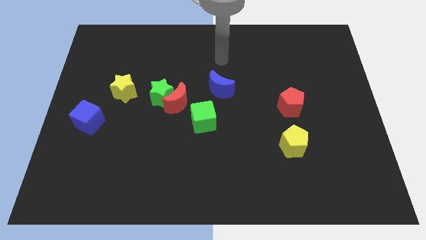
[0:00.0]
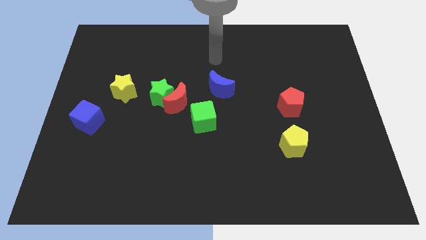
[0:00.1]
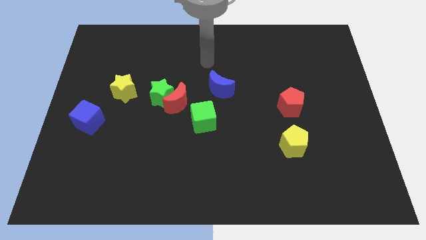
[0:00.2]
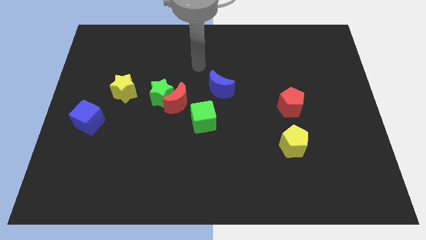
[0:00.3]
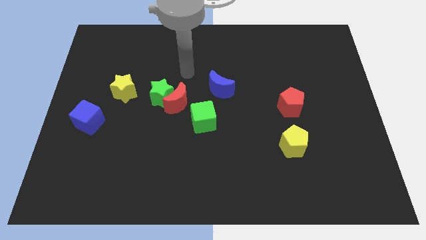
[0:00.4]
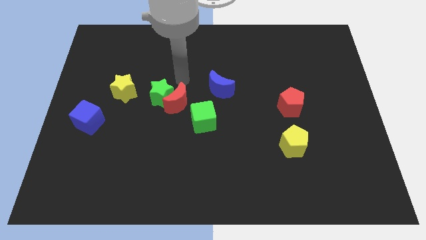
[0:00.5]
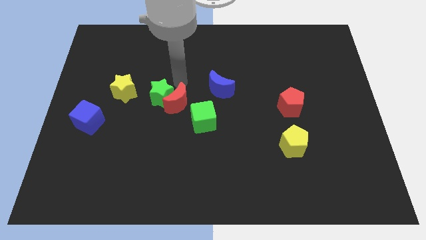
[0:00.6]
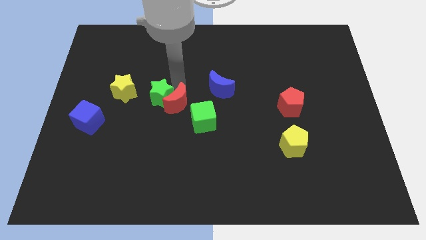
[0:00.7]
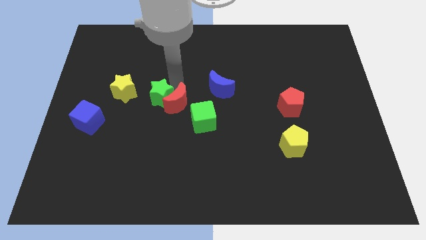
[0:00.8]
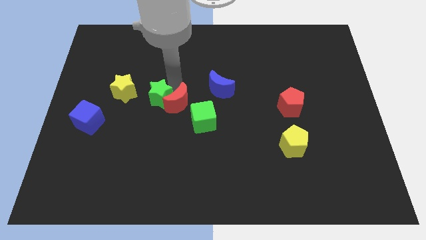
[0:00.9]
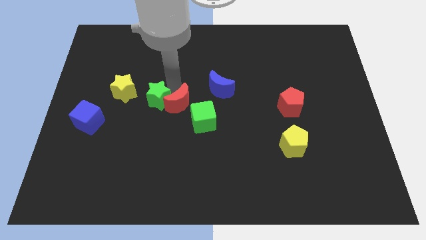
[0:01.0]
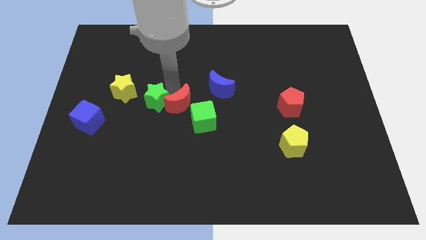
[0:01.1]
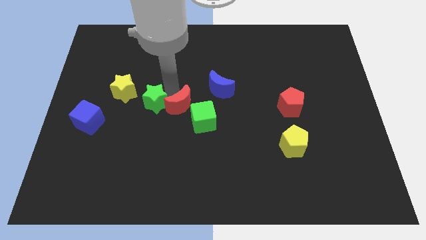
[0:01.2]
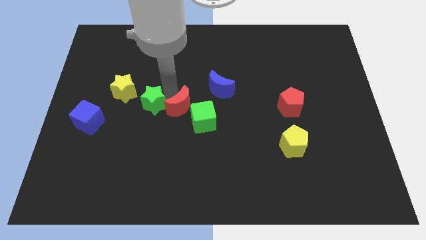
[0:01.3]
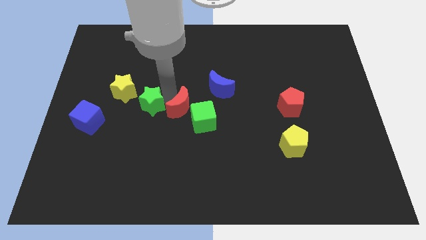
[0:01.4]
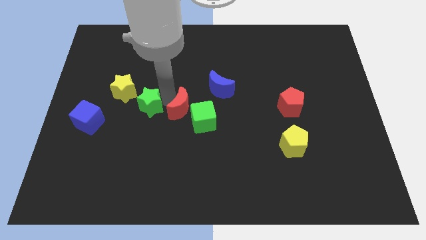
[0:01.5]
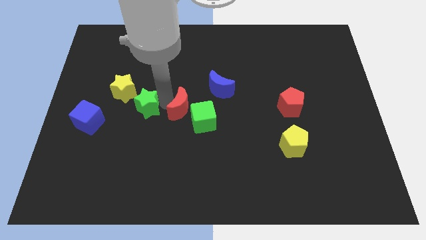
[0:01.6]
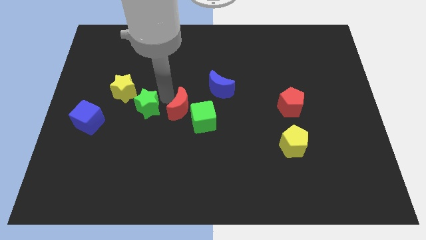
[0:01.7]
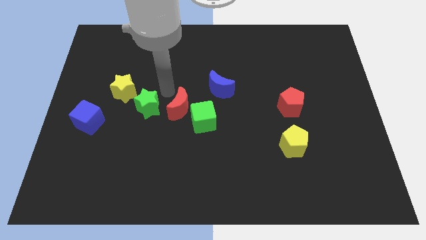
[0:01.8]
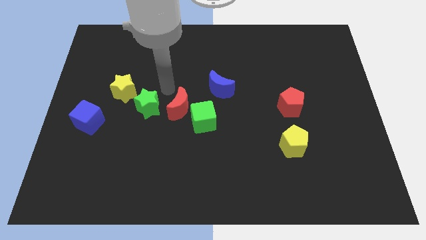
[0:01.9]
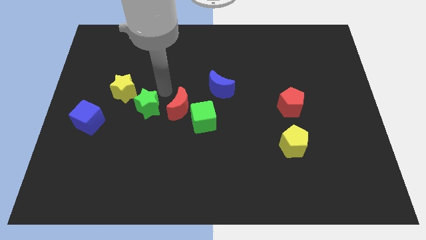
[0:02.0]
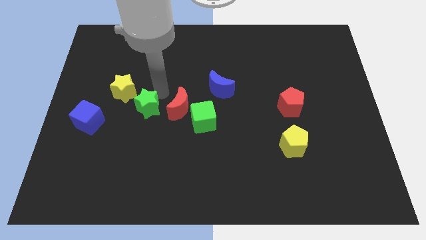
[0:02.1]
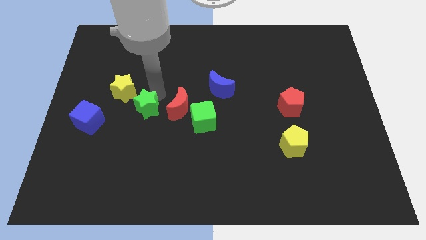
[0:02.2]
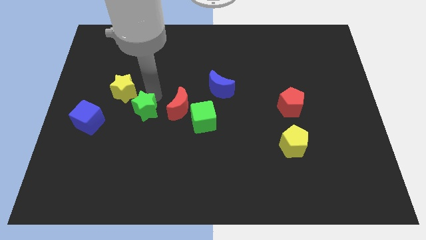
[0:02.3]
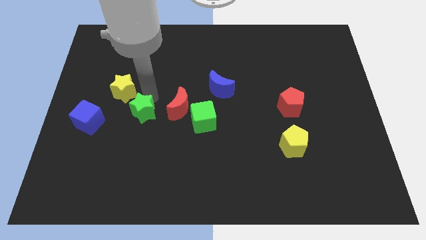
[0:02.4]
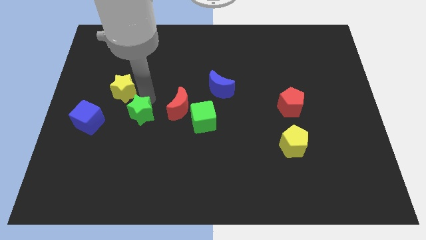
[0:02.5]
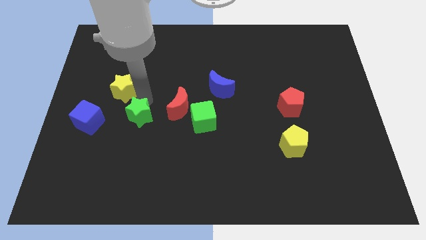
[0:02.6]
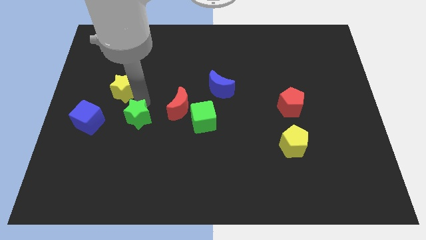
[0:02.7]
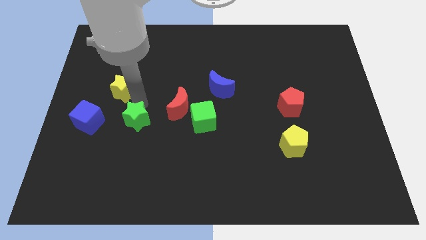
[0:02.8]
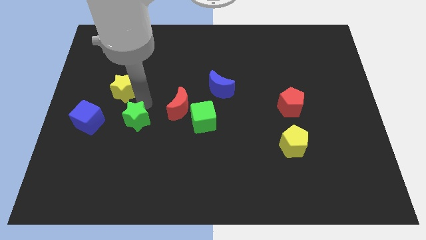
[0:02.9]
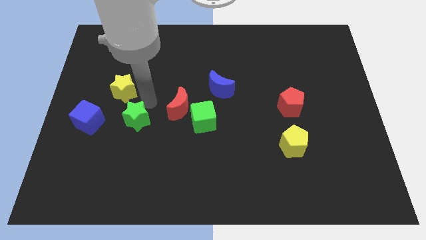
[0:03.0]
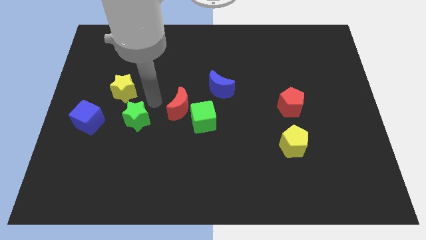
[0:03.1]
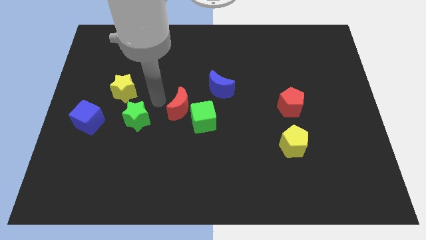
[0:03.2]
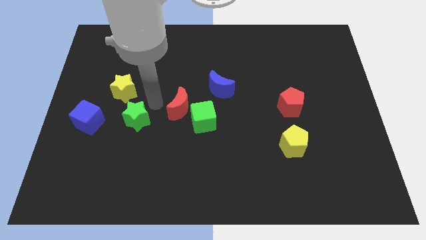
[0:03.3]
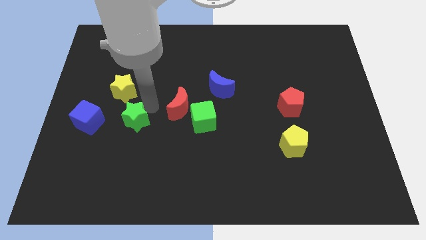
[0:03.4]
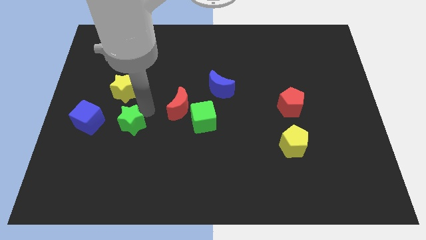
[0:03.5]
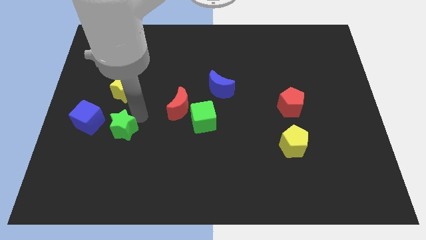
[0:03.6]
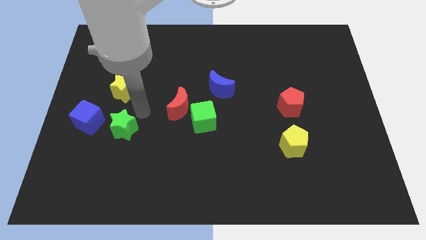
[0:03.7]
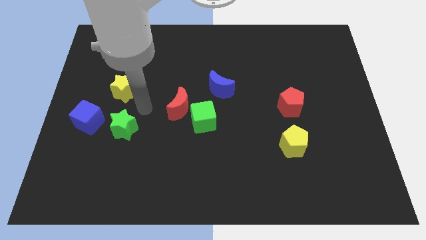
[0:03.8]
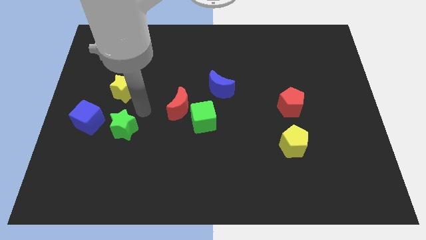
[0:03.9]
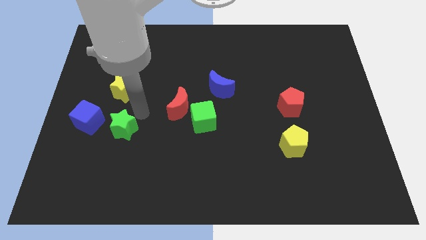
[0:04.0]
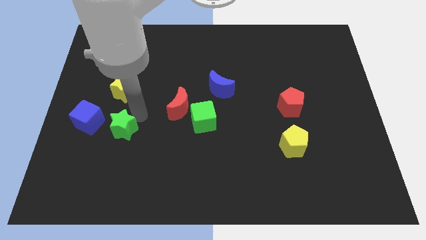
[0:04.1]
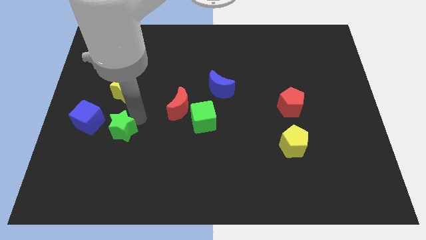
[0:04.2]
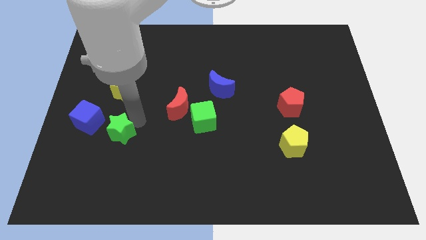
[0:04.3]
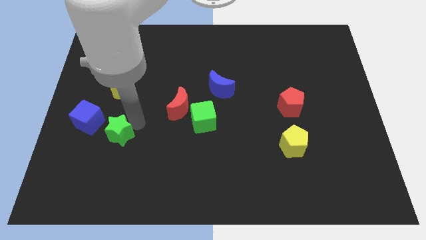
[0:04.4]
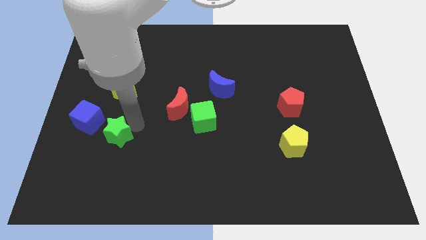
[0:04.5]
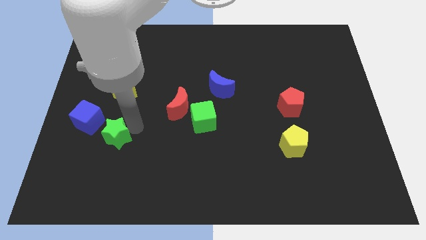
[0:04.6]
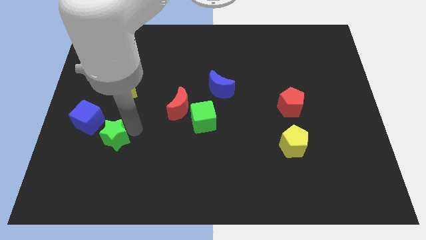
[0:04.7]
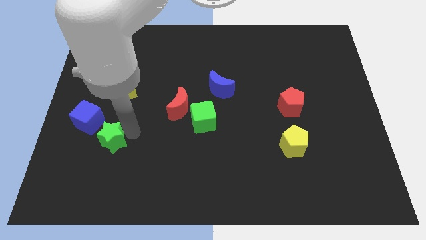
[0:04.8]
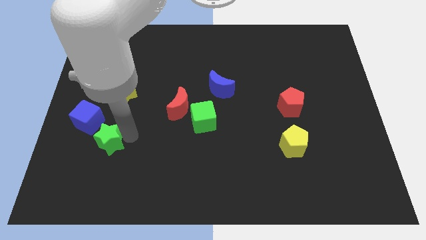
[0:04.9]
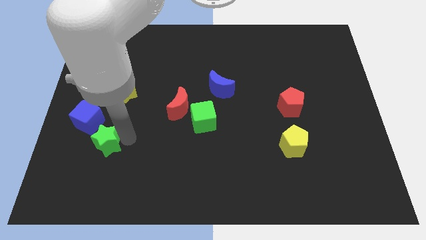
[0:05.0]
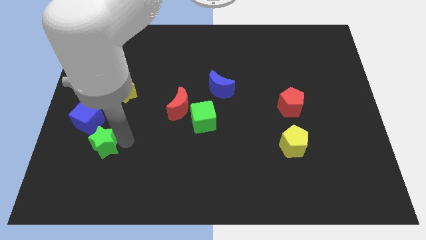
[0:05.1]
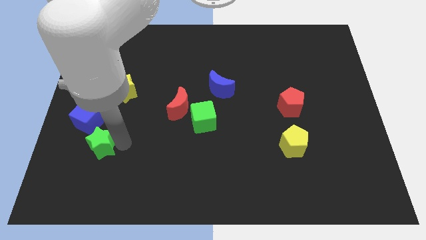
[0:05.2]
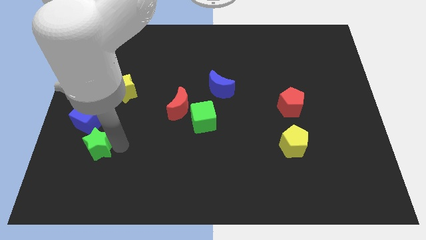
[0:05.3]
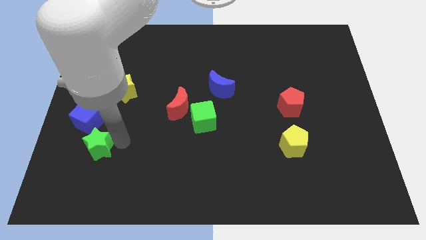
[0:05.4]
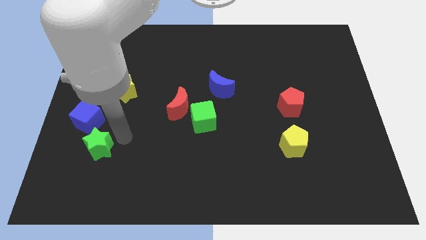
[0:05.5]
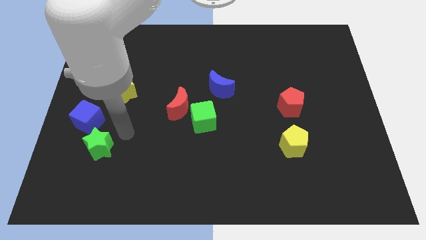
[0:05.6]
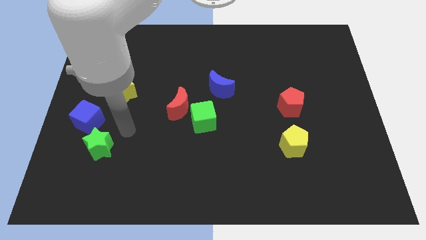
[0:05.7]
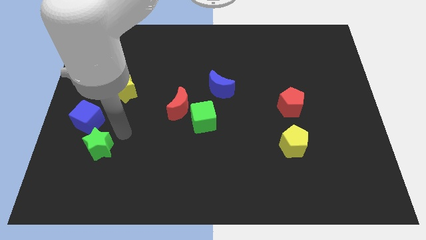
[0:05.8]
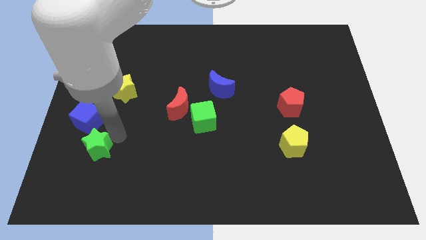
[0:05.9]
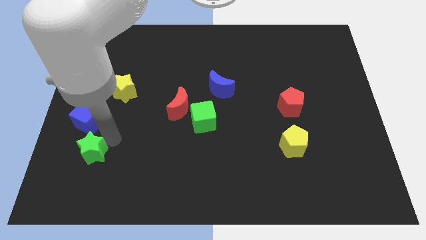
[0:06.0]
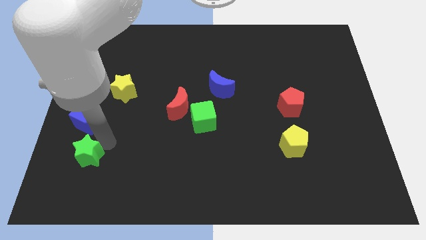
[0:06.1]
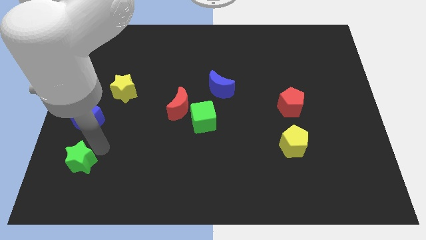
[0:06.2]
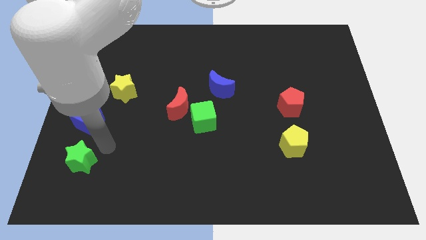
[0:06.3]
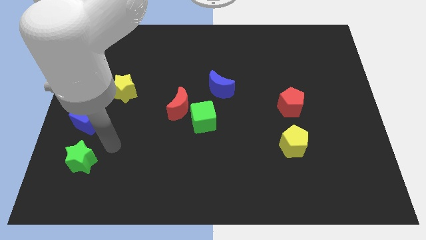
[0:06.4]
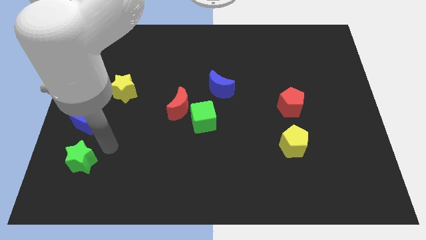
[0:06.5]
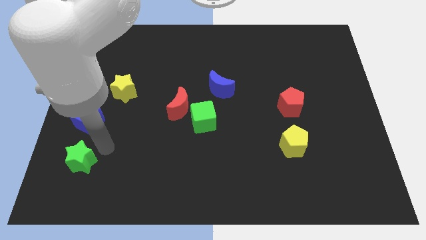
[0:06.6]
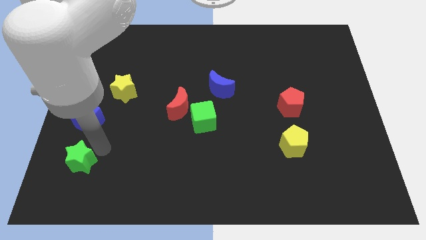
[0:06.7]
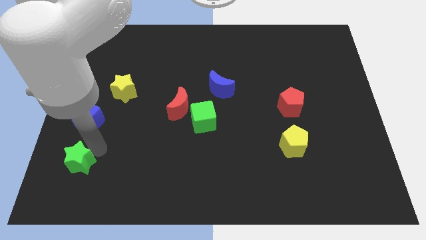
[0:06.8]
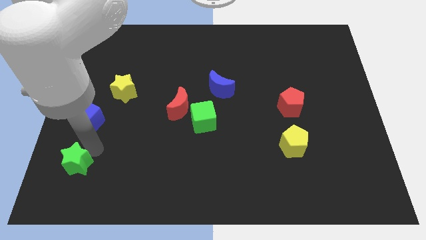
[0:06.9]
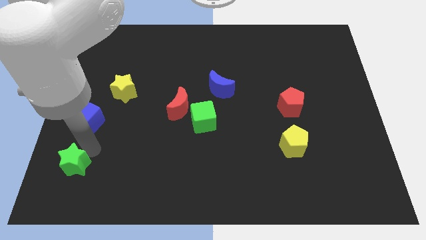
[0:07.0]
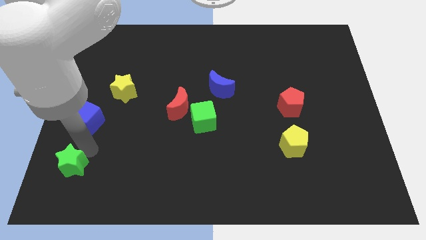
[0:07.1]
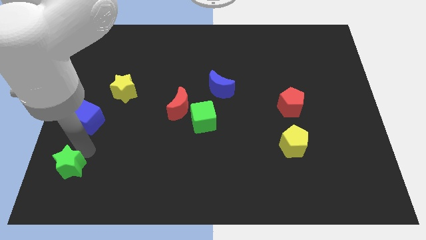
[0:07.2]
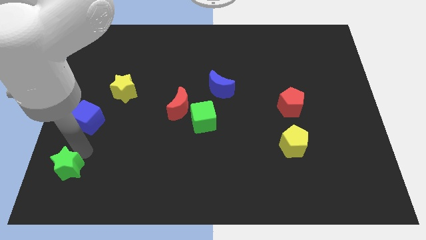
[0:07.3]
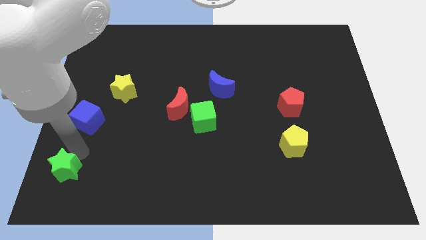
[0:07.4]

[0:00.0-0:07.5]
push the green star to the bottom left
